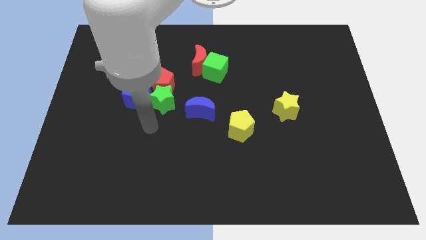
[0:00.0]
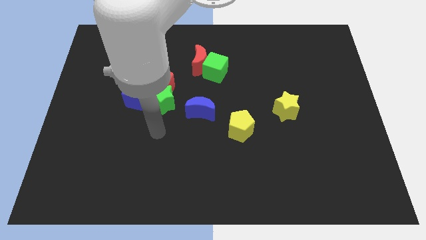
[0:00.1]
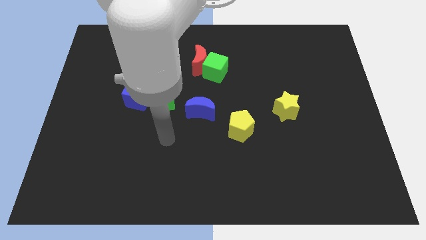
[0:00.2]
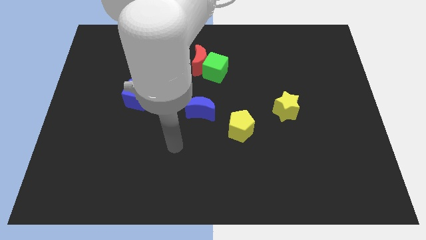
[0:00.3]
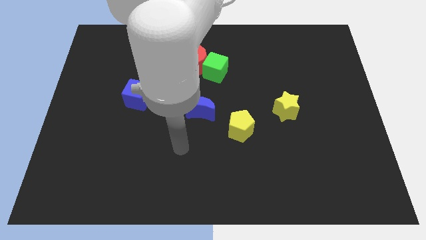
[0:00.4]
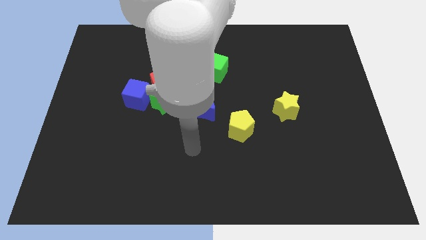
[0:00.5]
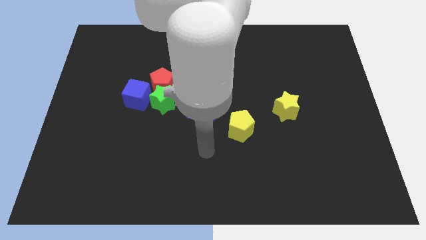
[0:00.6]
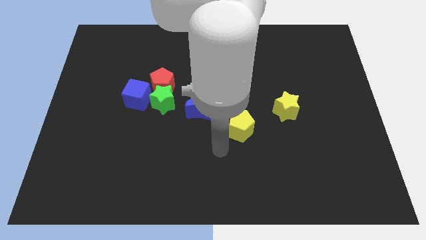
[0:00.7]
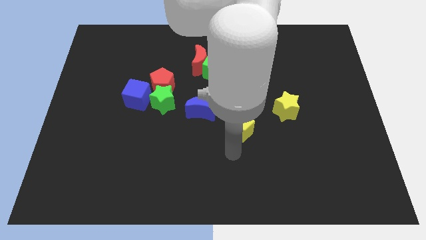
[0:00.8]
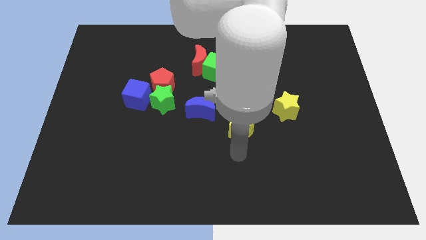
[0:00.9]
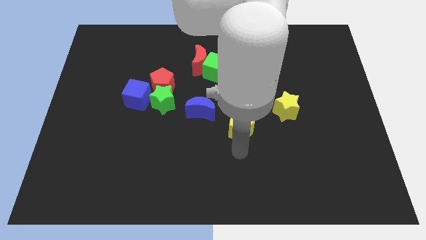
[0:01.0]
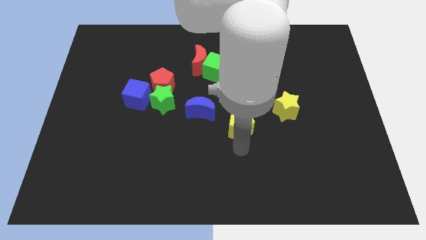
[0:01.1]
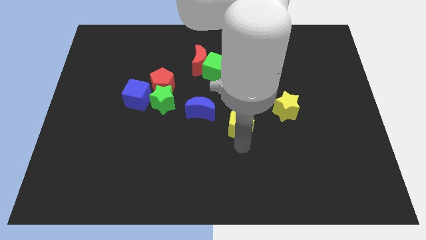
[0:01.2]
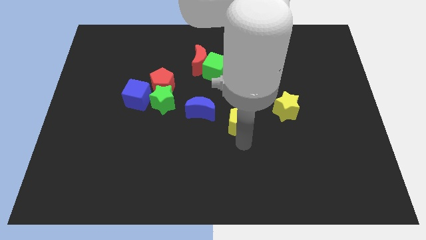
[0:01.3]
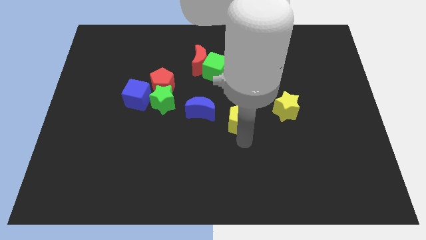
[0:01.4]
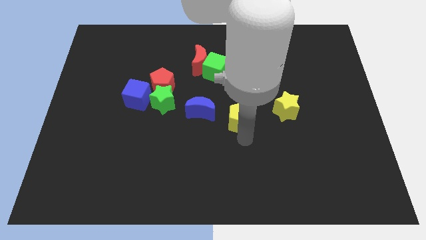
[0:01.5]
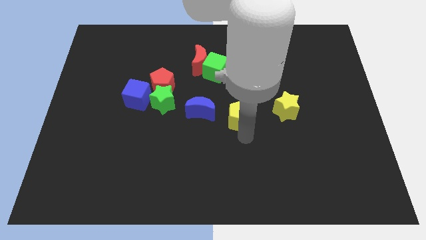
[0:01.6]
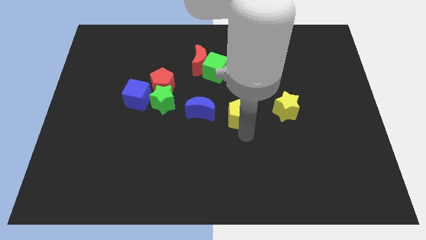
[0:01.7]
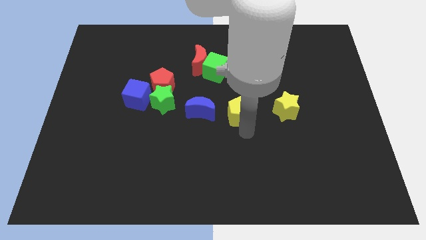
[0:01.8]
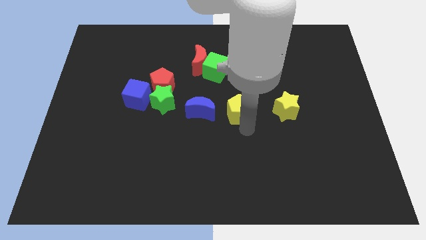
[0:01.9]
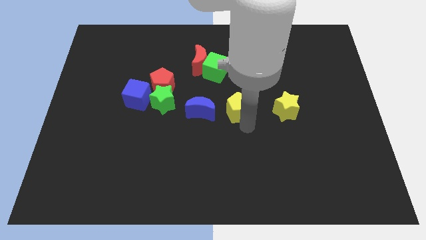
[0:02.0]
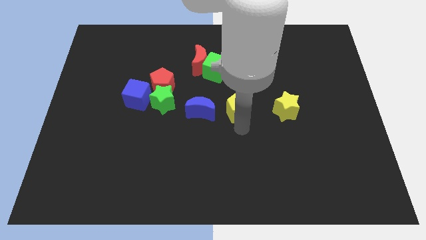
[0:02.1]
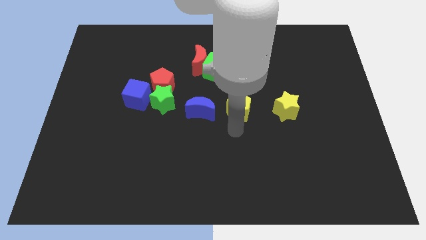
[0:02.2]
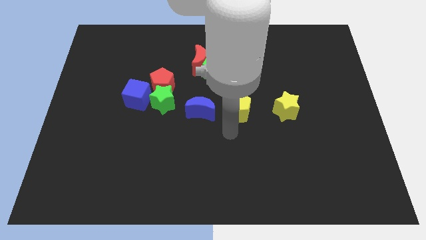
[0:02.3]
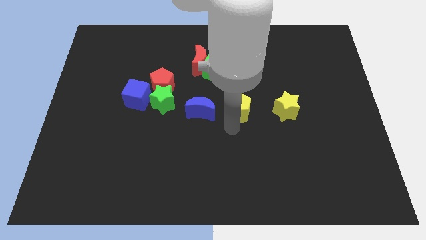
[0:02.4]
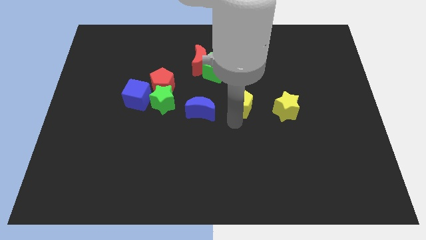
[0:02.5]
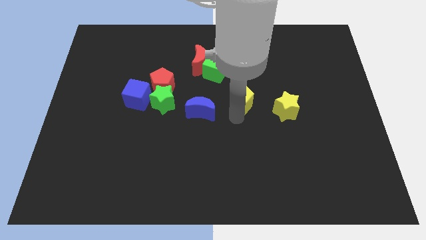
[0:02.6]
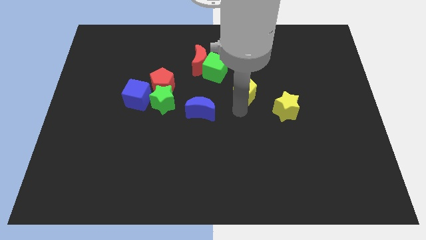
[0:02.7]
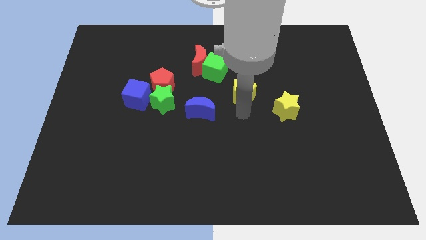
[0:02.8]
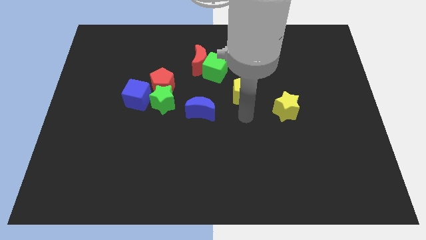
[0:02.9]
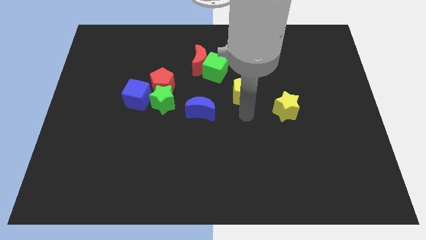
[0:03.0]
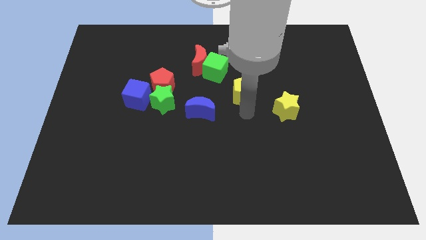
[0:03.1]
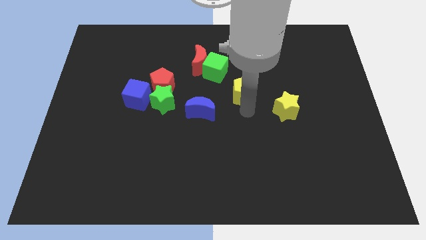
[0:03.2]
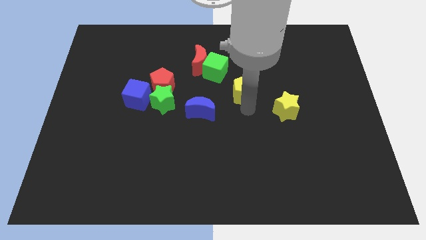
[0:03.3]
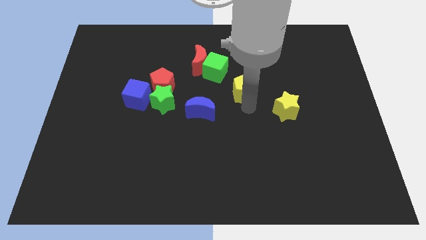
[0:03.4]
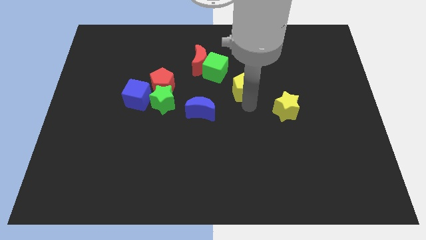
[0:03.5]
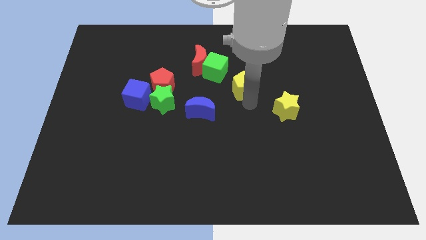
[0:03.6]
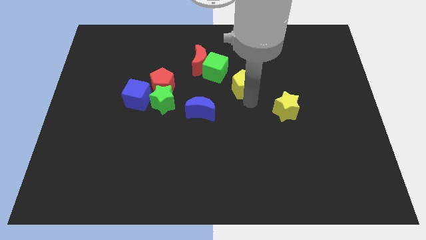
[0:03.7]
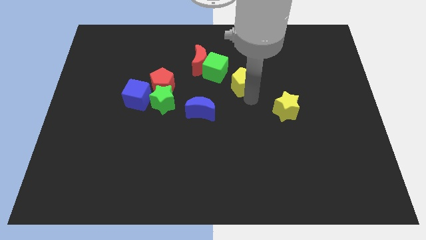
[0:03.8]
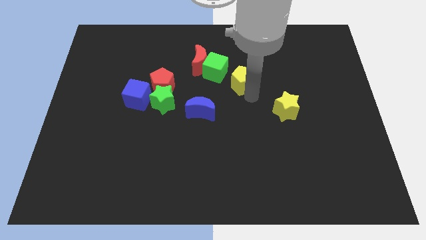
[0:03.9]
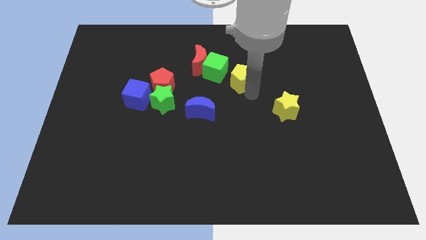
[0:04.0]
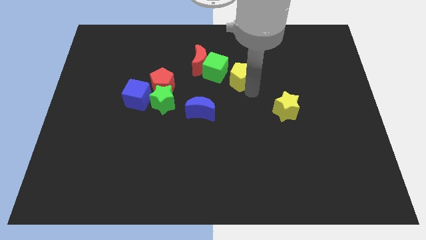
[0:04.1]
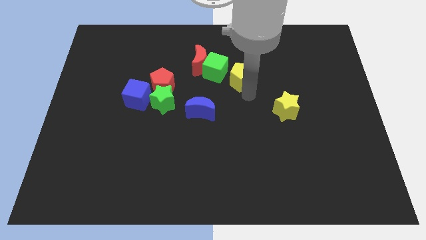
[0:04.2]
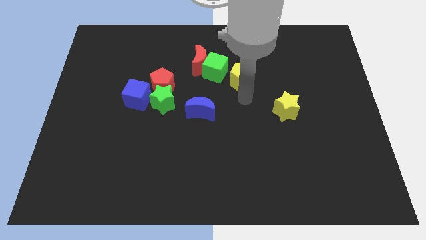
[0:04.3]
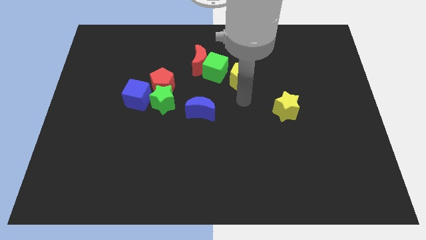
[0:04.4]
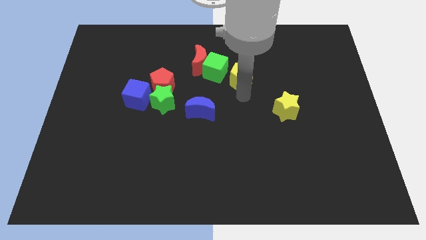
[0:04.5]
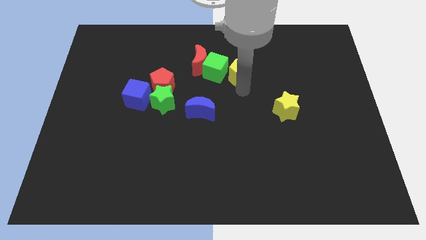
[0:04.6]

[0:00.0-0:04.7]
put the yellow pentagon just right of the red moon

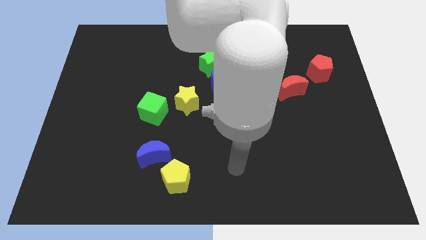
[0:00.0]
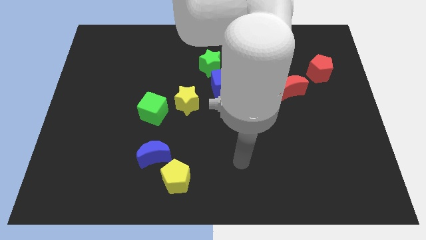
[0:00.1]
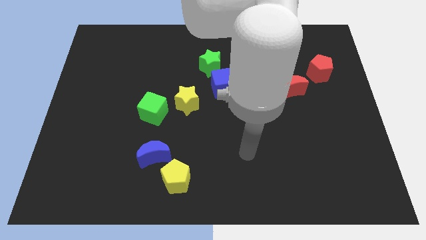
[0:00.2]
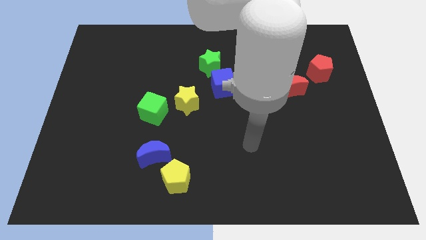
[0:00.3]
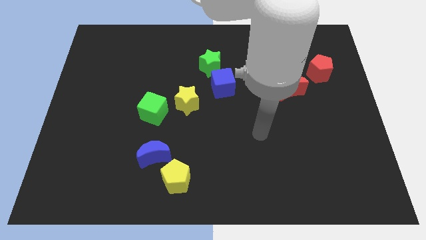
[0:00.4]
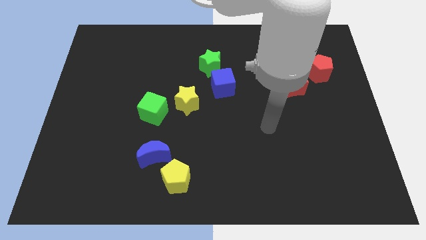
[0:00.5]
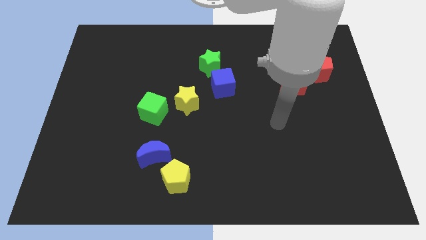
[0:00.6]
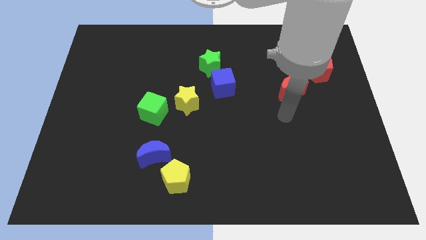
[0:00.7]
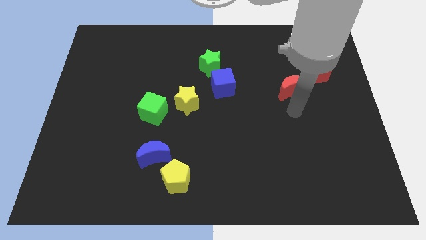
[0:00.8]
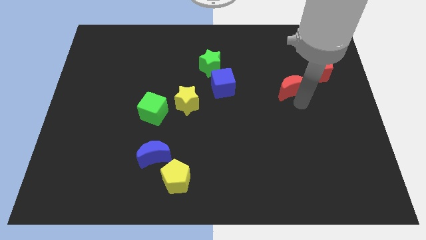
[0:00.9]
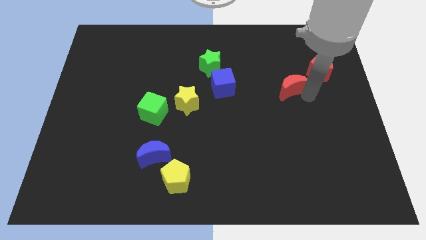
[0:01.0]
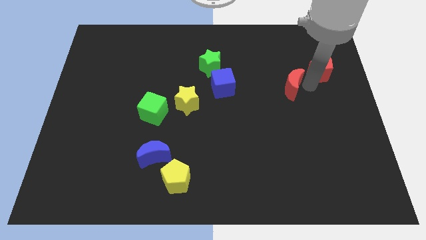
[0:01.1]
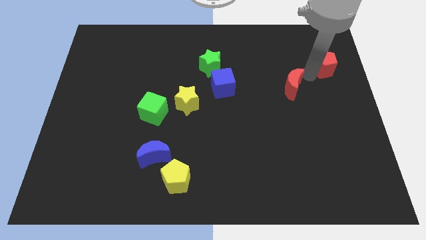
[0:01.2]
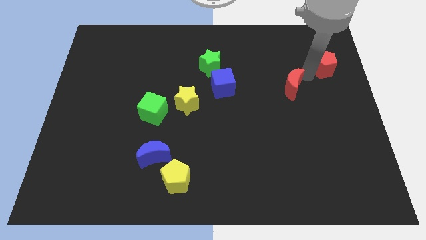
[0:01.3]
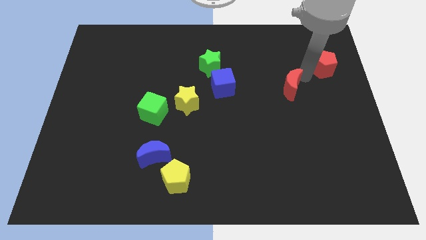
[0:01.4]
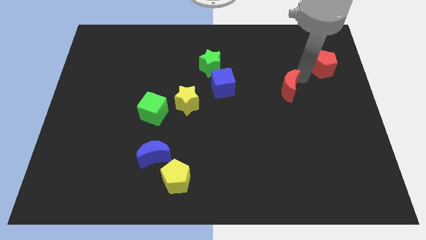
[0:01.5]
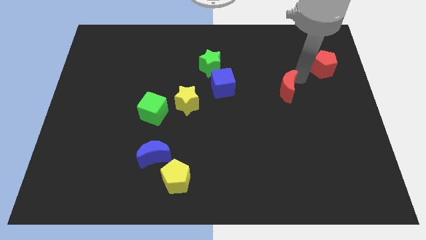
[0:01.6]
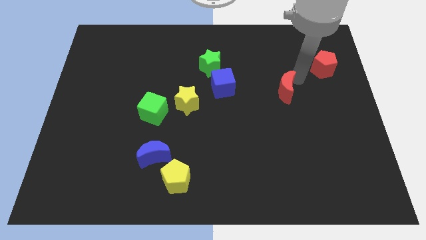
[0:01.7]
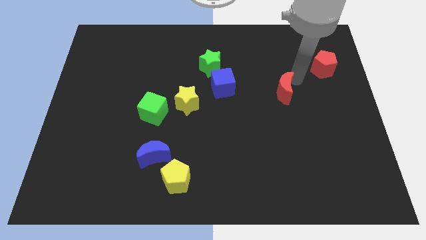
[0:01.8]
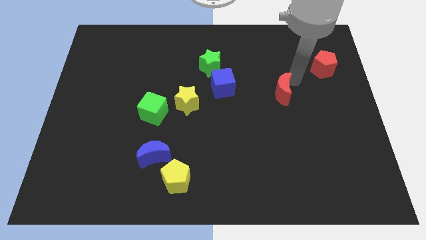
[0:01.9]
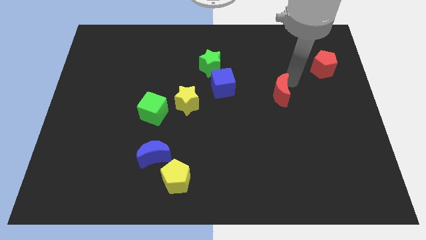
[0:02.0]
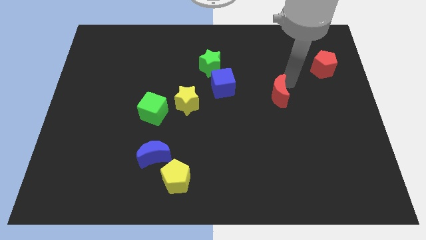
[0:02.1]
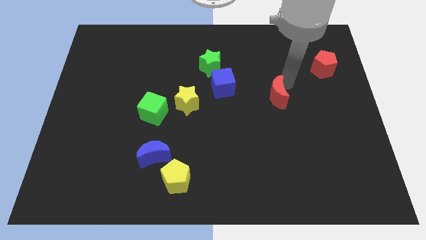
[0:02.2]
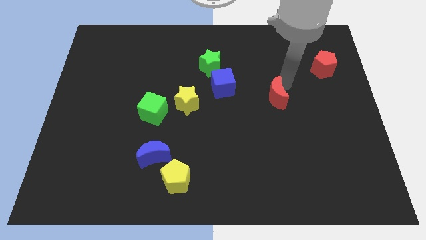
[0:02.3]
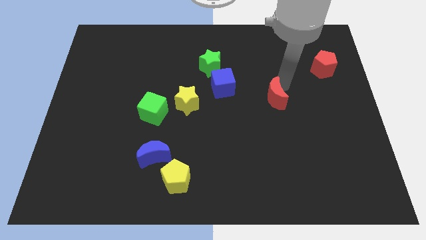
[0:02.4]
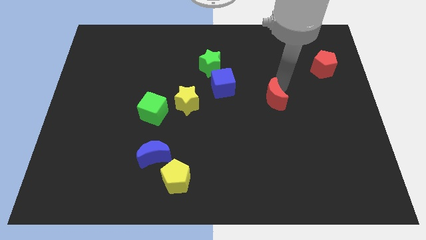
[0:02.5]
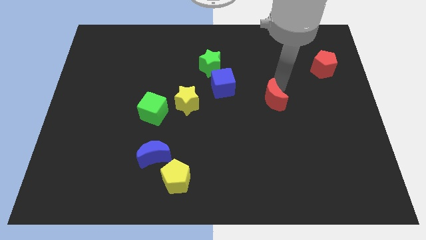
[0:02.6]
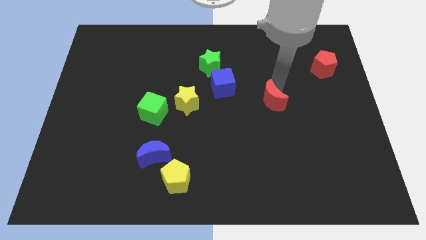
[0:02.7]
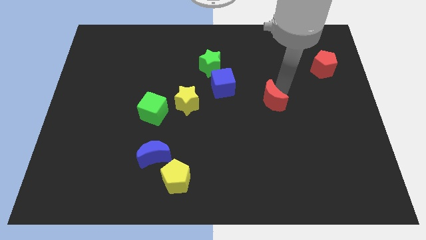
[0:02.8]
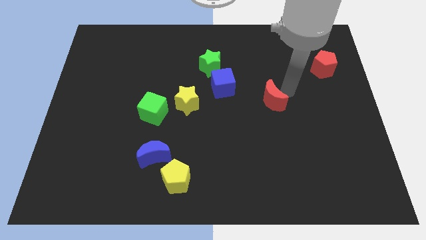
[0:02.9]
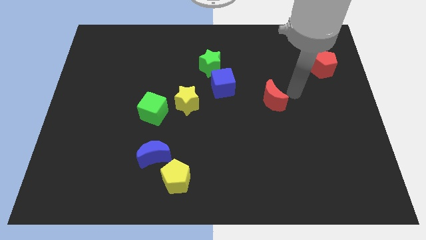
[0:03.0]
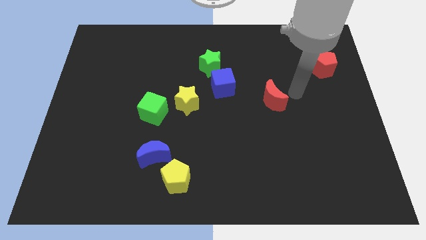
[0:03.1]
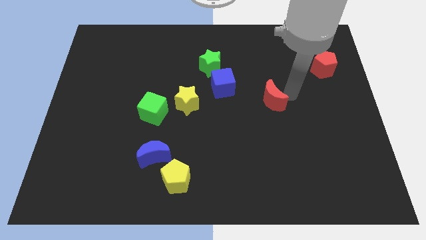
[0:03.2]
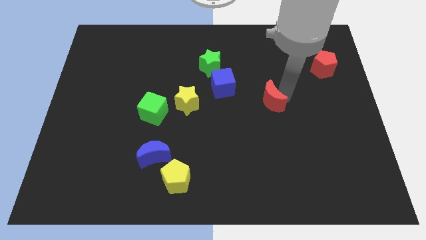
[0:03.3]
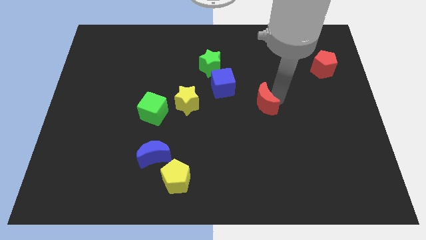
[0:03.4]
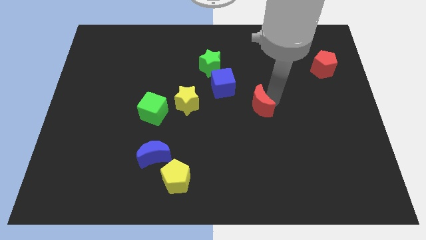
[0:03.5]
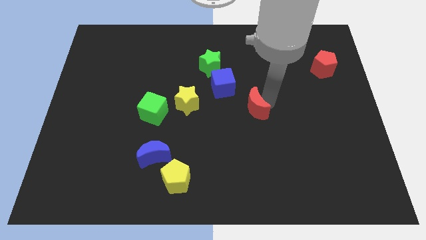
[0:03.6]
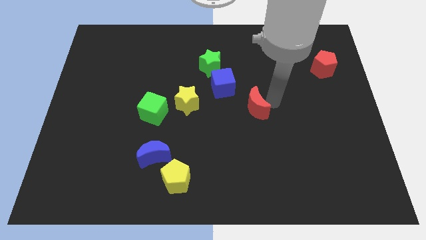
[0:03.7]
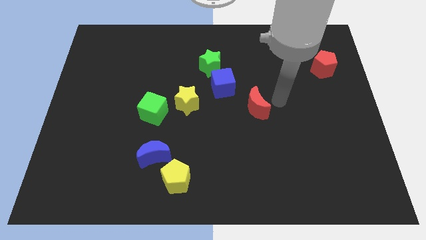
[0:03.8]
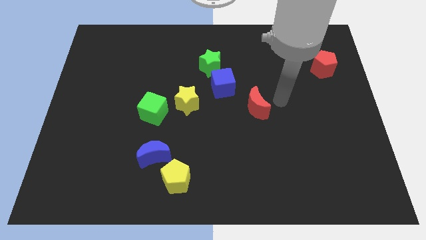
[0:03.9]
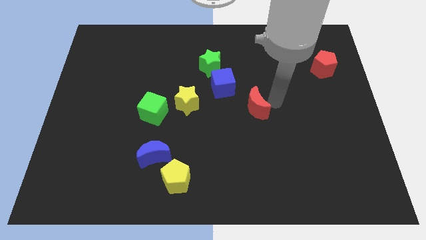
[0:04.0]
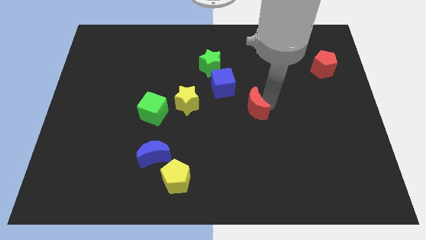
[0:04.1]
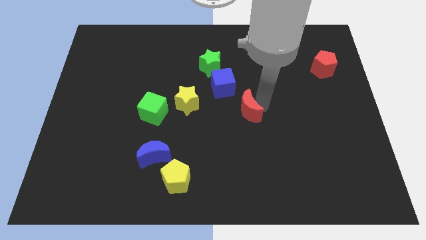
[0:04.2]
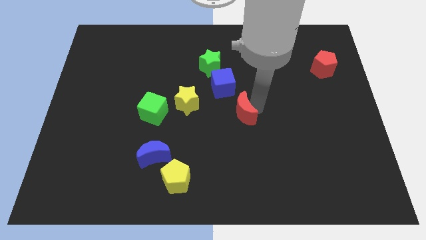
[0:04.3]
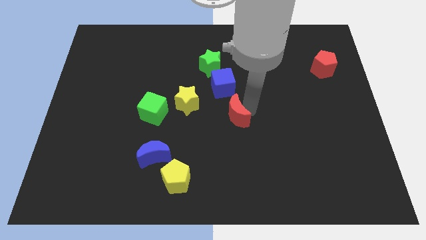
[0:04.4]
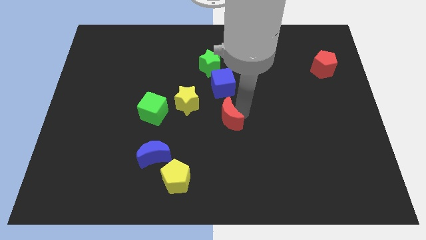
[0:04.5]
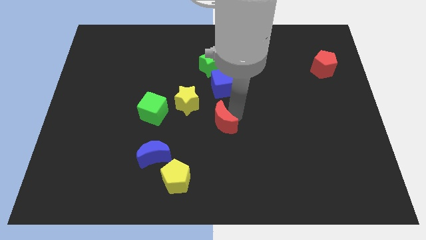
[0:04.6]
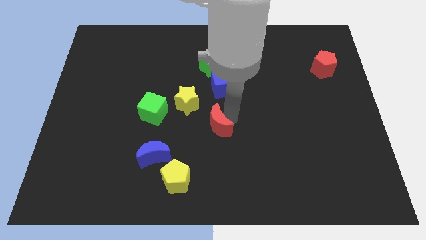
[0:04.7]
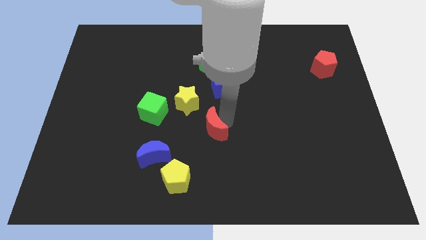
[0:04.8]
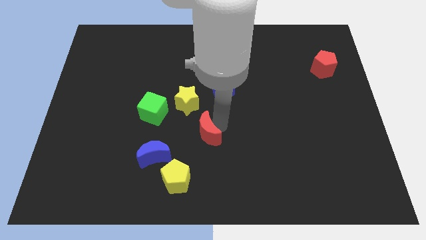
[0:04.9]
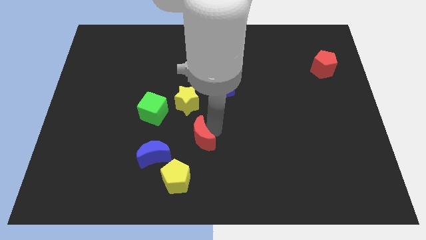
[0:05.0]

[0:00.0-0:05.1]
push the red moon to the bottom of the yellow star
